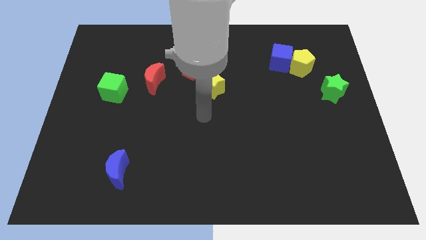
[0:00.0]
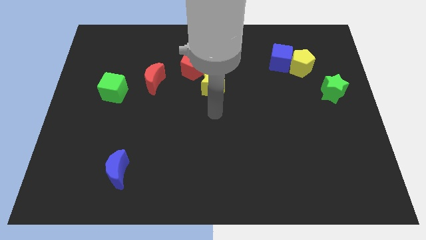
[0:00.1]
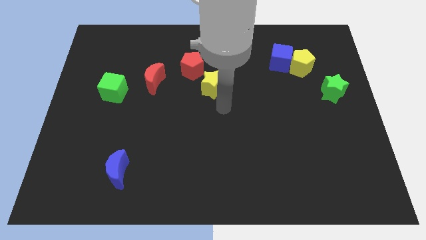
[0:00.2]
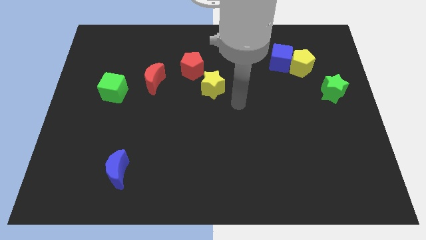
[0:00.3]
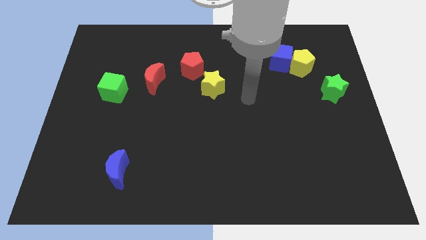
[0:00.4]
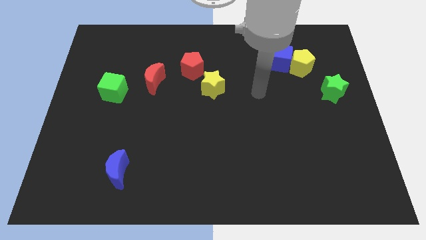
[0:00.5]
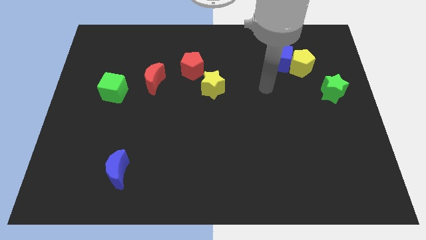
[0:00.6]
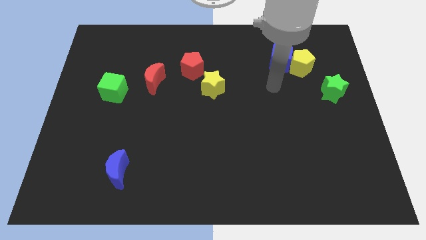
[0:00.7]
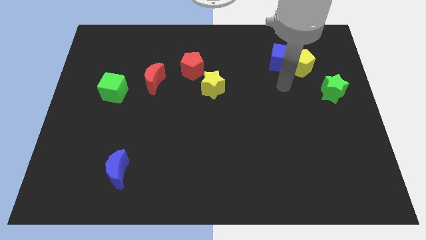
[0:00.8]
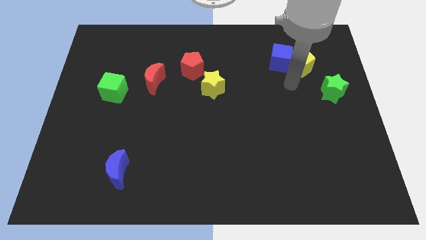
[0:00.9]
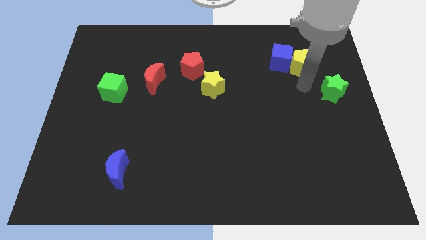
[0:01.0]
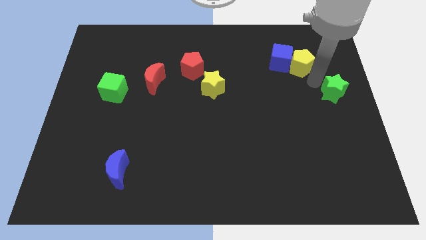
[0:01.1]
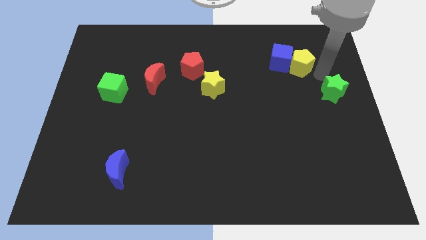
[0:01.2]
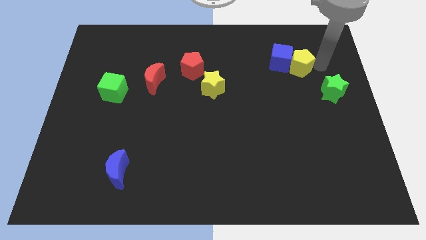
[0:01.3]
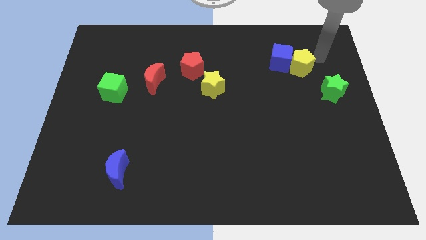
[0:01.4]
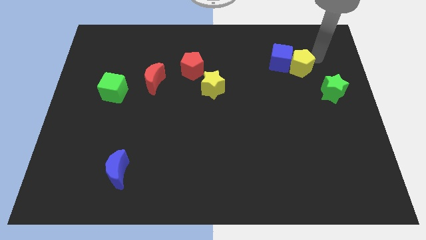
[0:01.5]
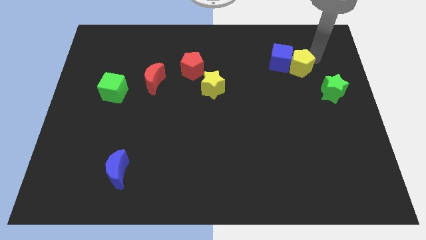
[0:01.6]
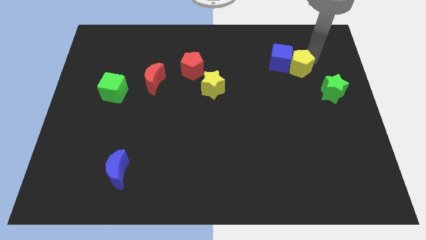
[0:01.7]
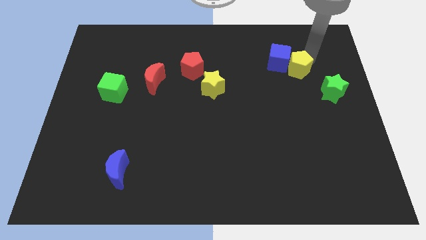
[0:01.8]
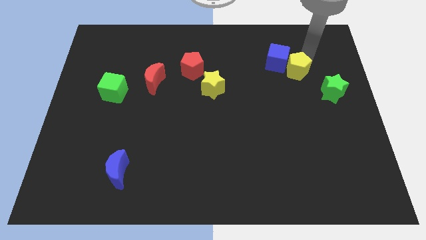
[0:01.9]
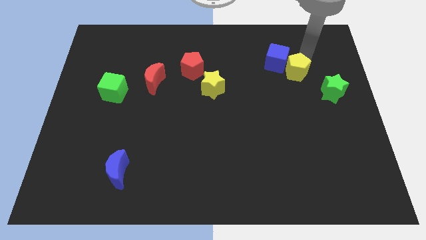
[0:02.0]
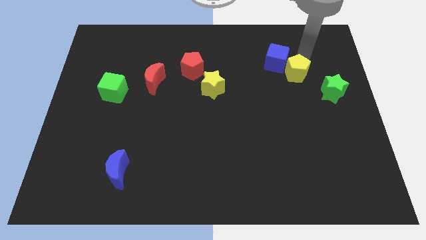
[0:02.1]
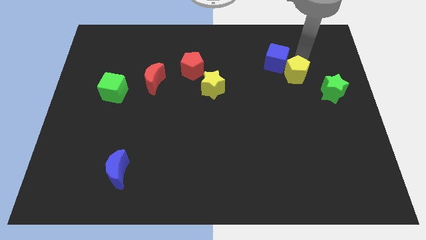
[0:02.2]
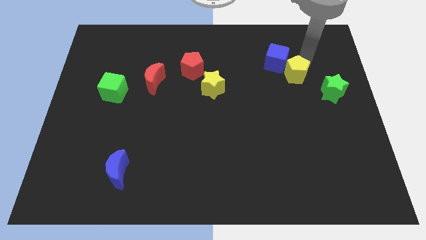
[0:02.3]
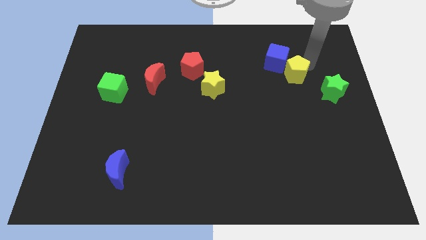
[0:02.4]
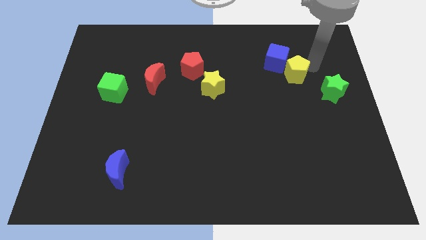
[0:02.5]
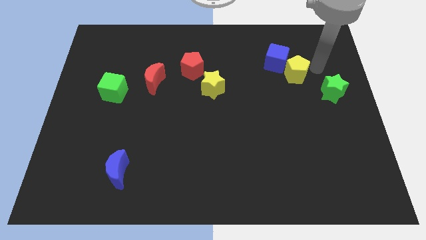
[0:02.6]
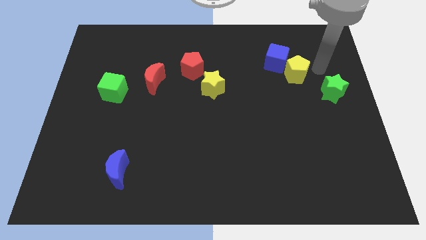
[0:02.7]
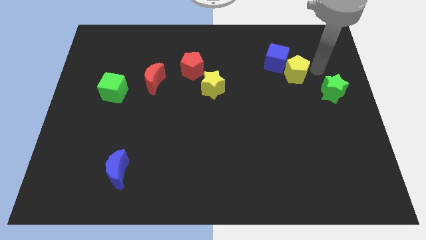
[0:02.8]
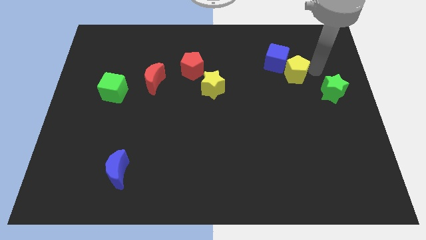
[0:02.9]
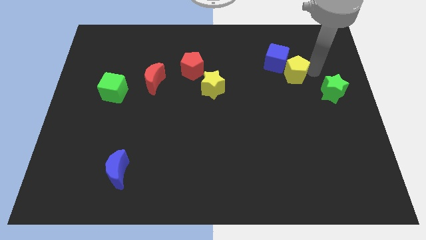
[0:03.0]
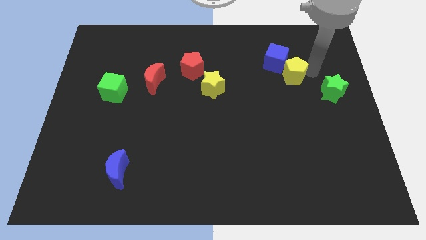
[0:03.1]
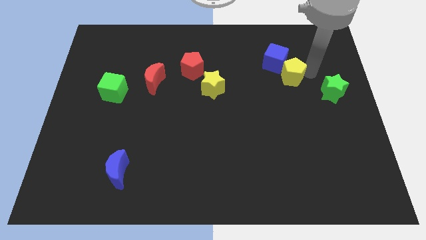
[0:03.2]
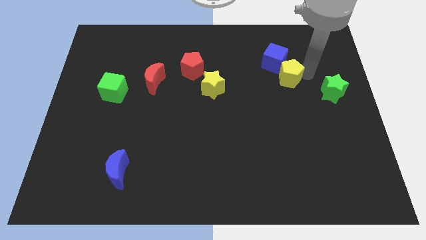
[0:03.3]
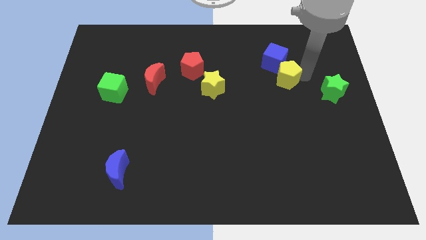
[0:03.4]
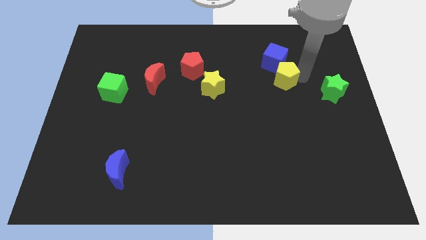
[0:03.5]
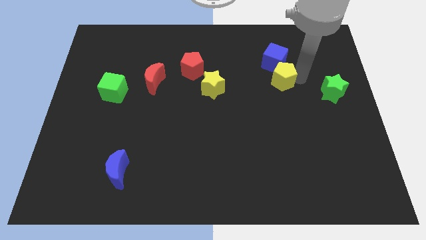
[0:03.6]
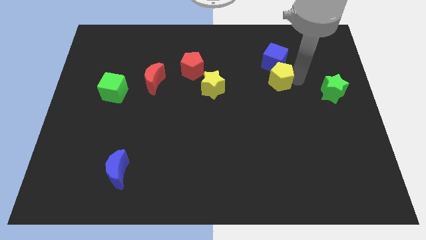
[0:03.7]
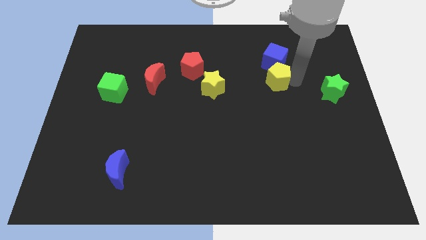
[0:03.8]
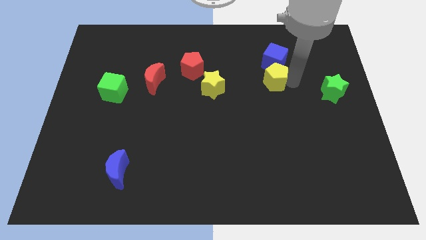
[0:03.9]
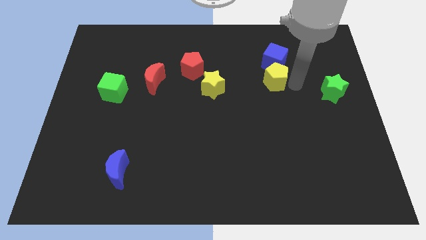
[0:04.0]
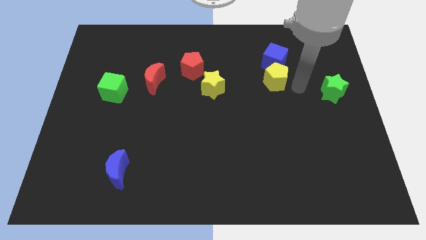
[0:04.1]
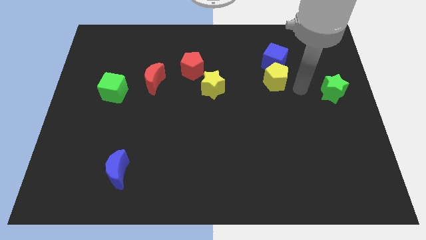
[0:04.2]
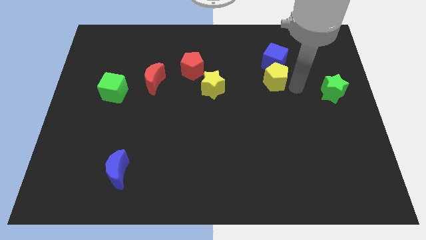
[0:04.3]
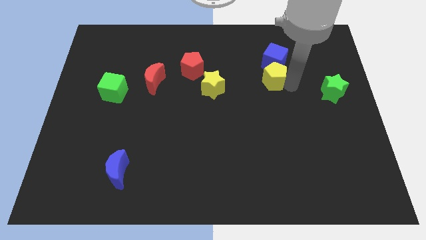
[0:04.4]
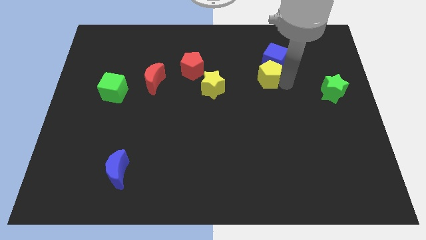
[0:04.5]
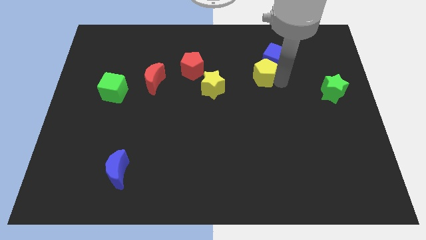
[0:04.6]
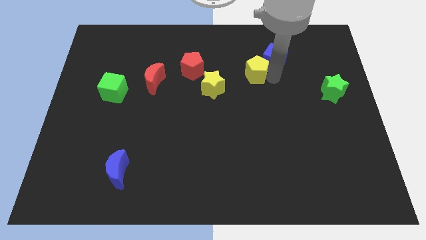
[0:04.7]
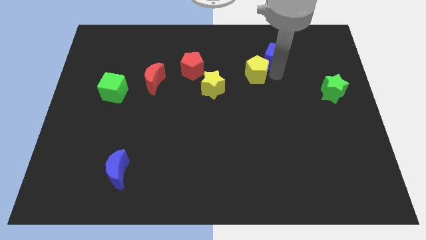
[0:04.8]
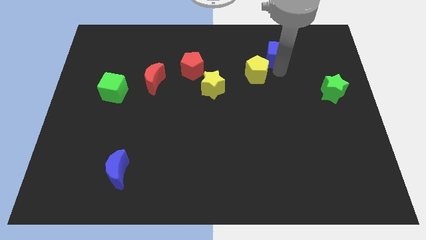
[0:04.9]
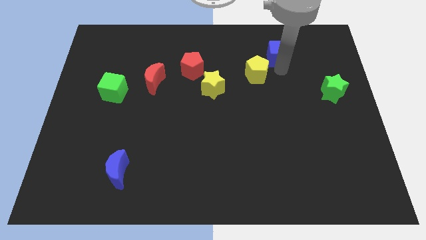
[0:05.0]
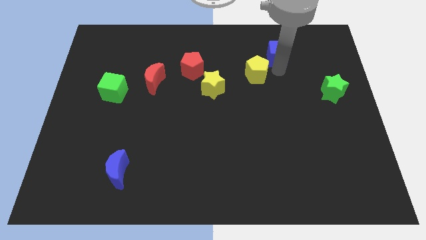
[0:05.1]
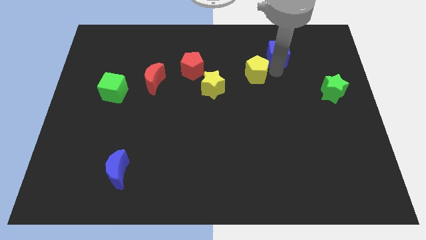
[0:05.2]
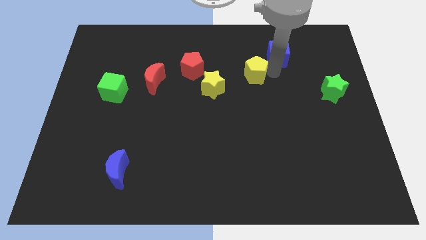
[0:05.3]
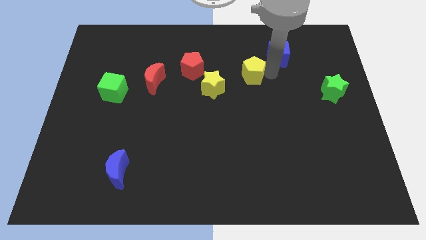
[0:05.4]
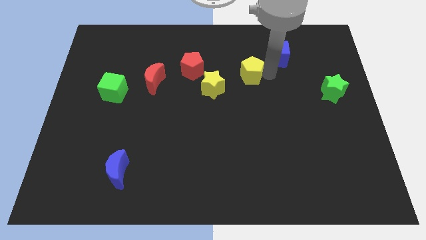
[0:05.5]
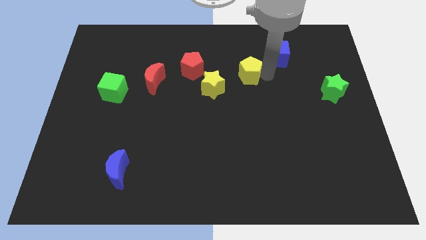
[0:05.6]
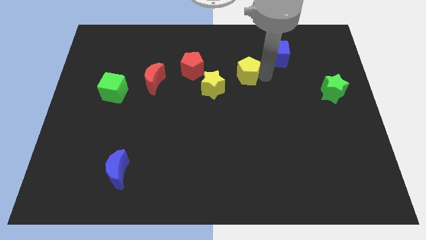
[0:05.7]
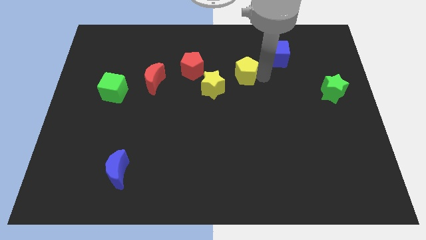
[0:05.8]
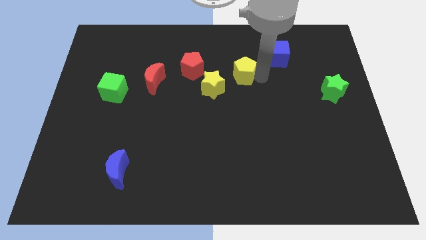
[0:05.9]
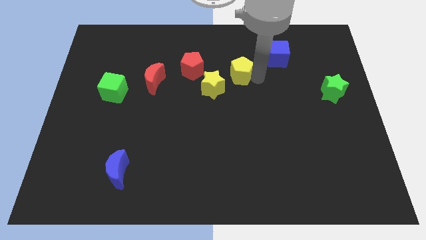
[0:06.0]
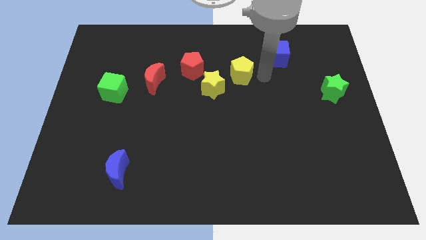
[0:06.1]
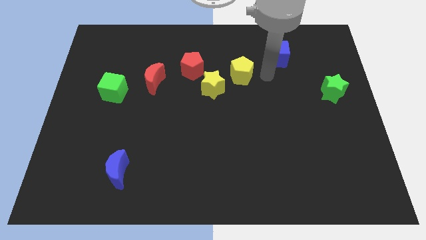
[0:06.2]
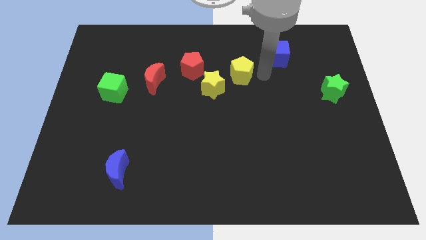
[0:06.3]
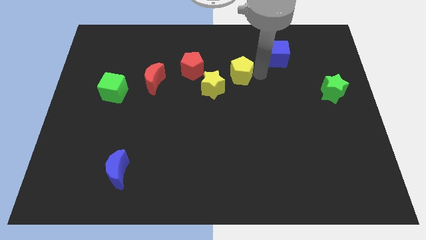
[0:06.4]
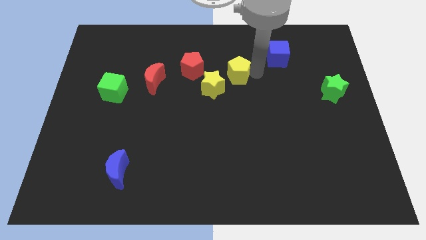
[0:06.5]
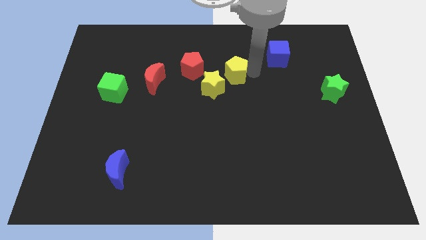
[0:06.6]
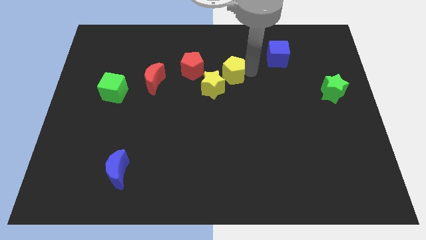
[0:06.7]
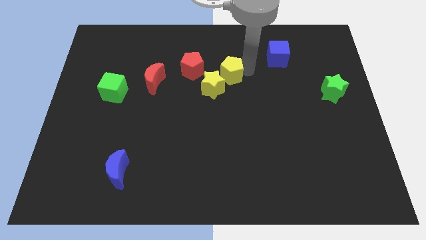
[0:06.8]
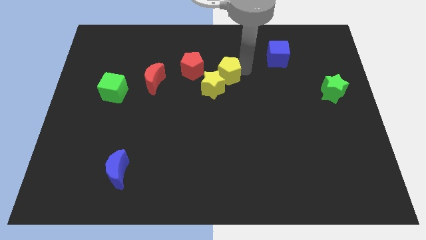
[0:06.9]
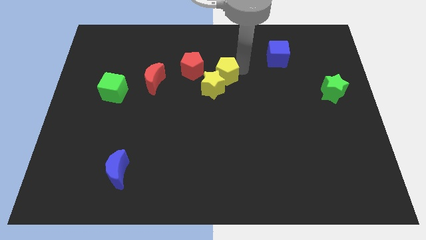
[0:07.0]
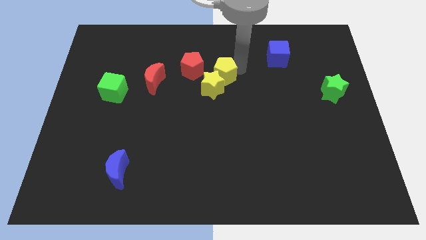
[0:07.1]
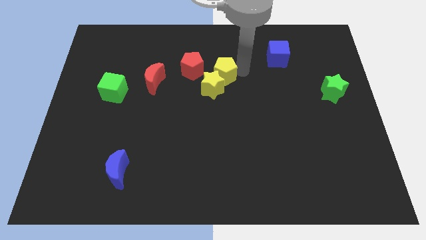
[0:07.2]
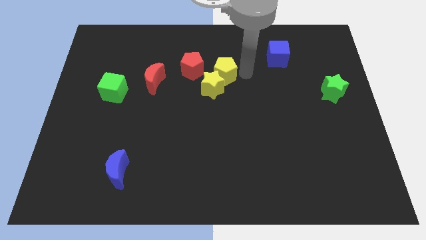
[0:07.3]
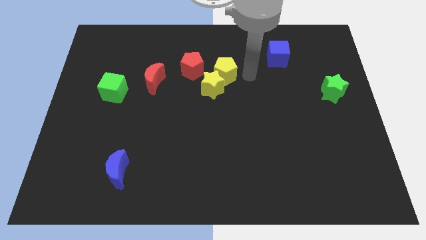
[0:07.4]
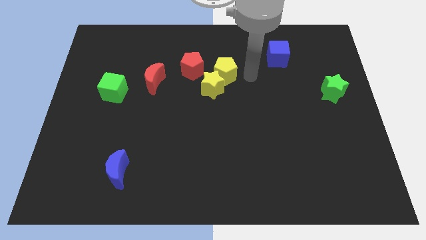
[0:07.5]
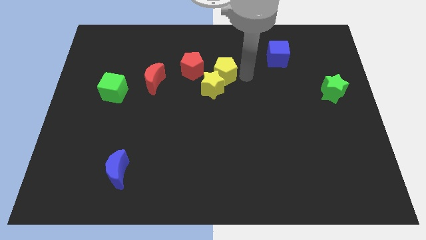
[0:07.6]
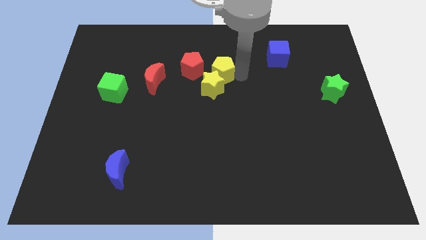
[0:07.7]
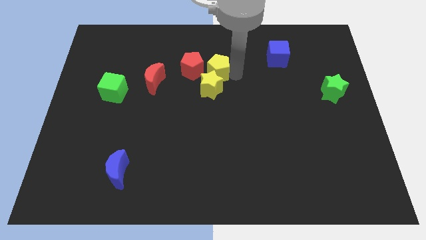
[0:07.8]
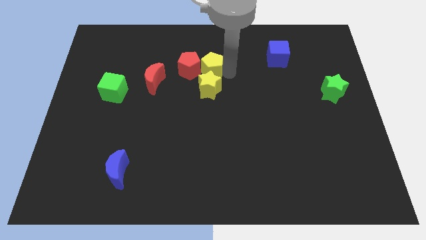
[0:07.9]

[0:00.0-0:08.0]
push the yellow pentagon close to the red pentagon
